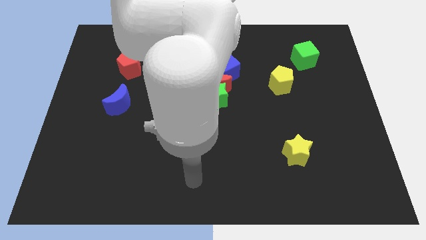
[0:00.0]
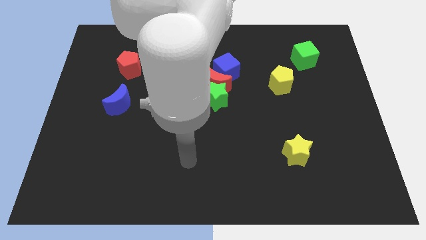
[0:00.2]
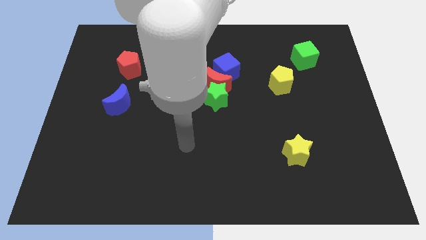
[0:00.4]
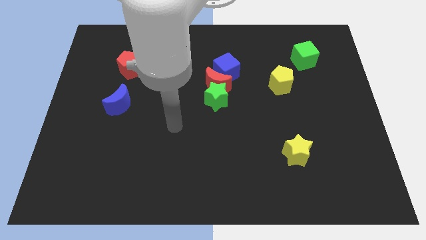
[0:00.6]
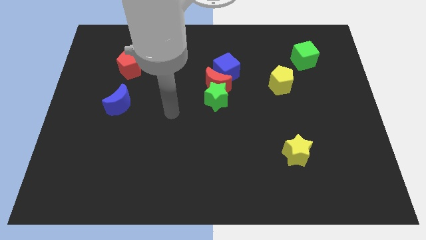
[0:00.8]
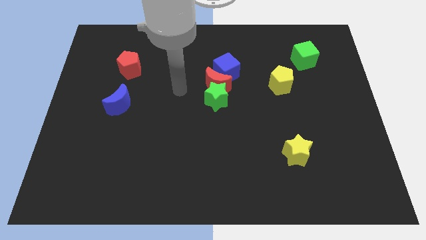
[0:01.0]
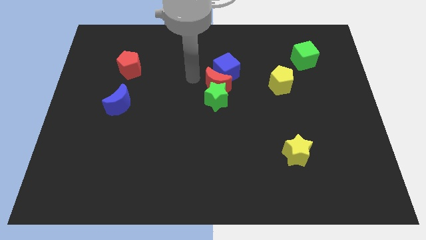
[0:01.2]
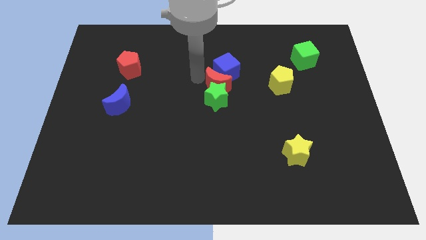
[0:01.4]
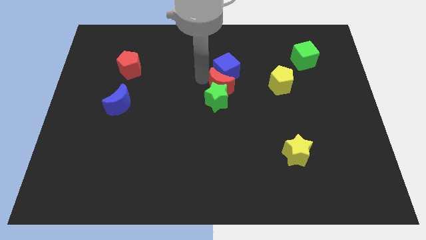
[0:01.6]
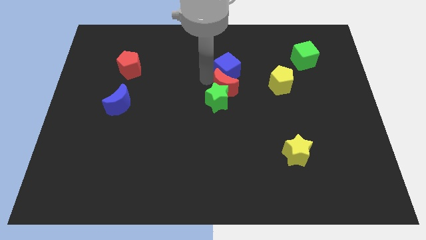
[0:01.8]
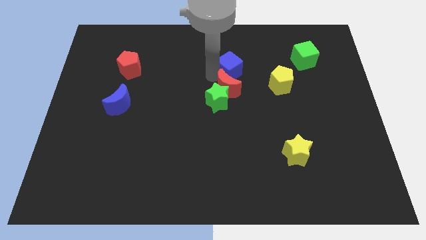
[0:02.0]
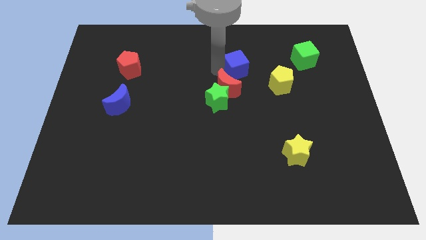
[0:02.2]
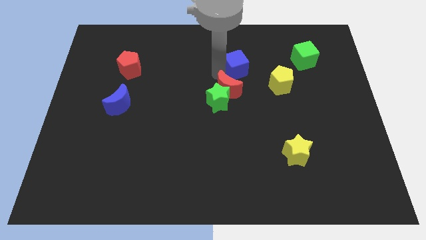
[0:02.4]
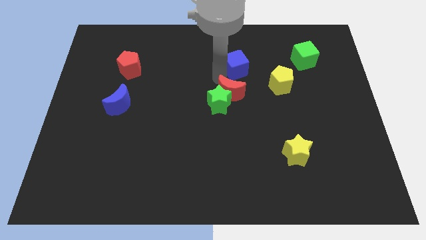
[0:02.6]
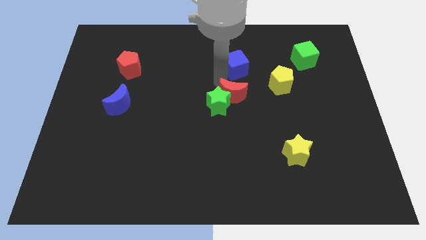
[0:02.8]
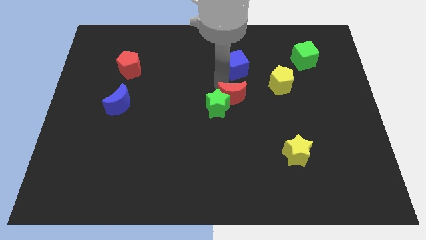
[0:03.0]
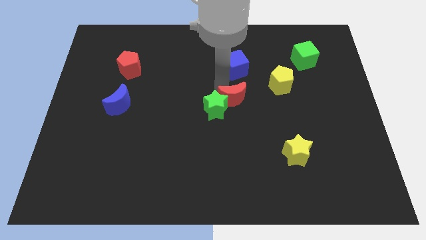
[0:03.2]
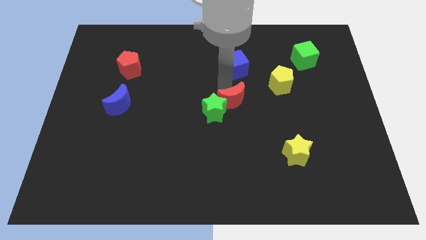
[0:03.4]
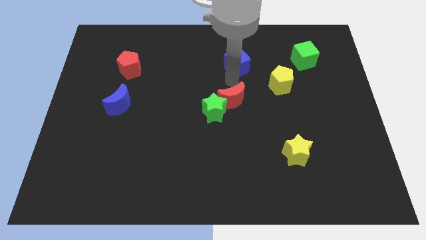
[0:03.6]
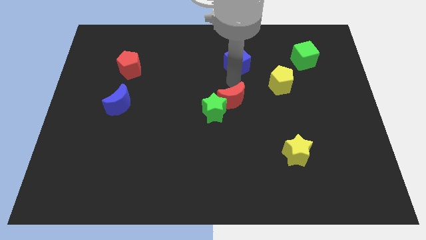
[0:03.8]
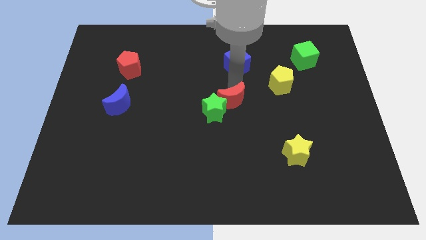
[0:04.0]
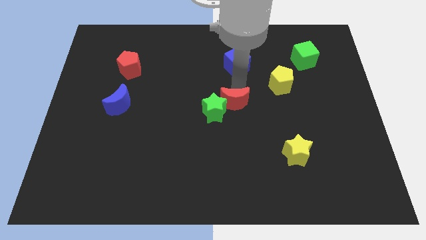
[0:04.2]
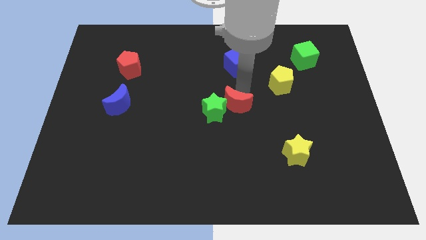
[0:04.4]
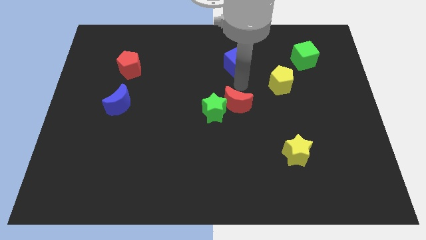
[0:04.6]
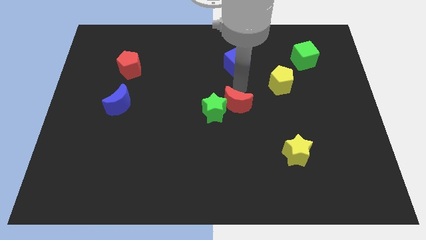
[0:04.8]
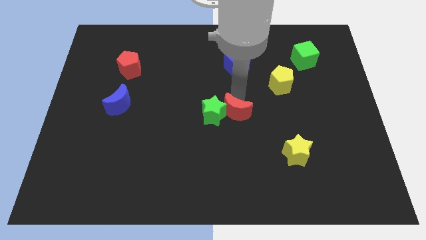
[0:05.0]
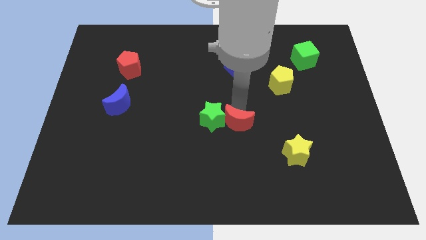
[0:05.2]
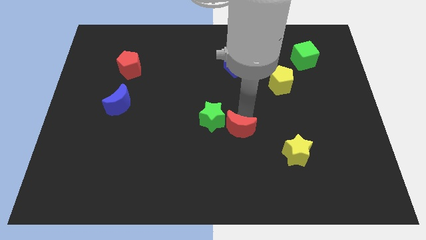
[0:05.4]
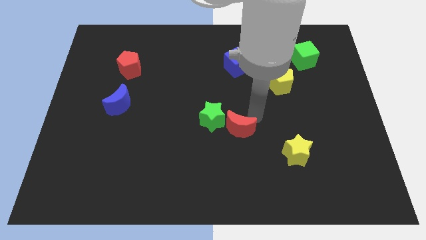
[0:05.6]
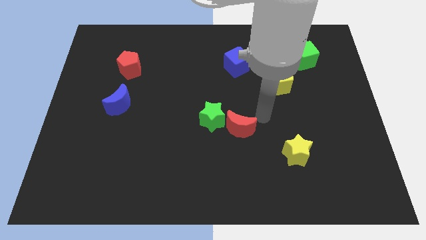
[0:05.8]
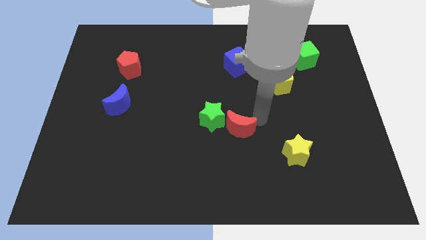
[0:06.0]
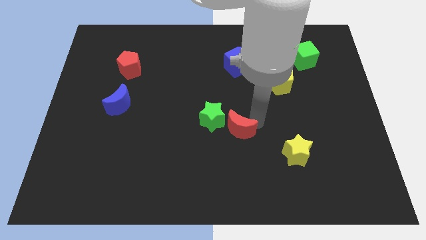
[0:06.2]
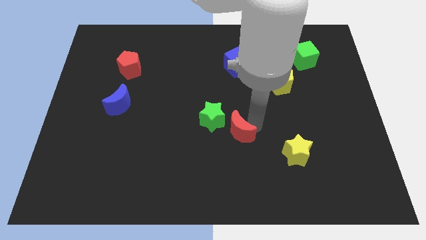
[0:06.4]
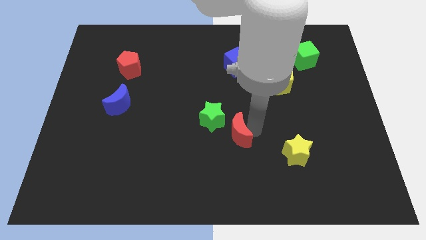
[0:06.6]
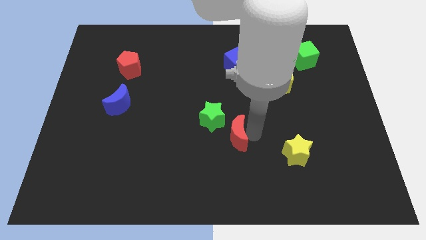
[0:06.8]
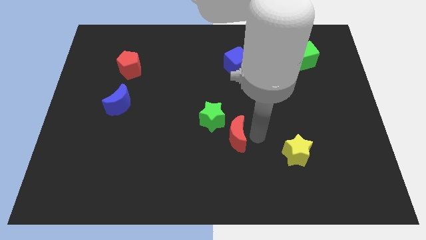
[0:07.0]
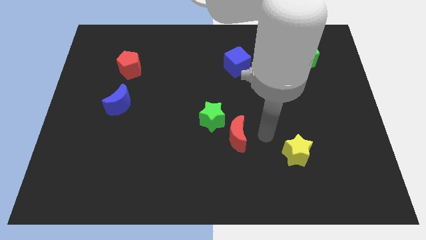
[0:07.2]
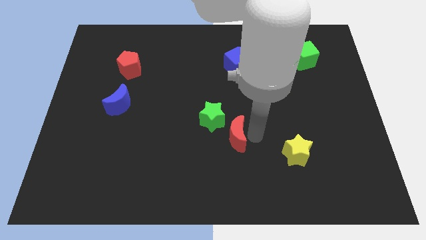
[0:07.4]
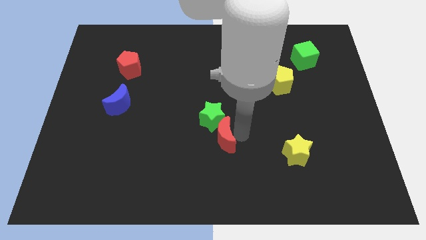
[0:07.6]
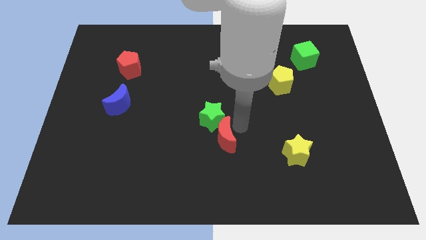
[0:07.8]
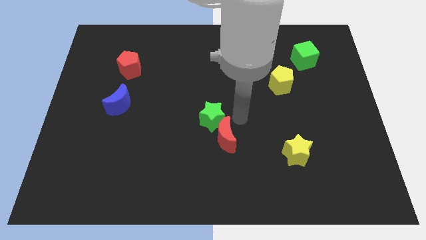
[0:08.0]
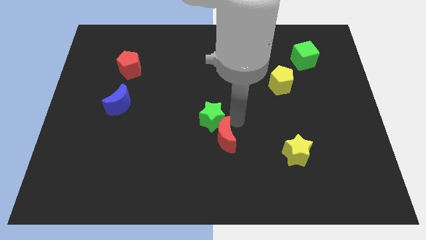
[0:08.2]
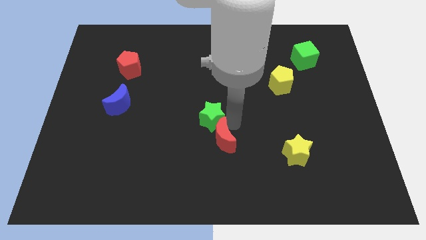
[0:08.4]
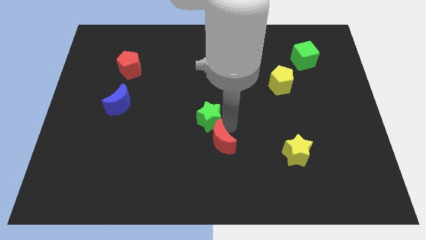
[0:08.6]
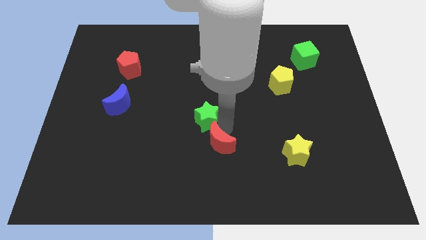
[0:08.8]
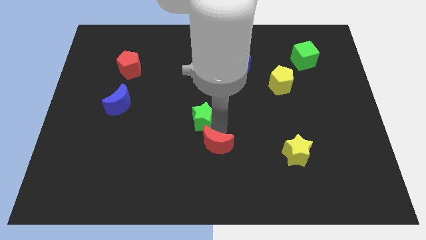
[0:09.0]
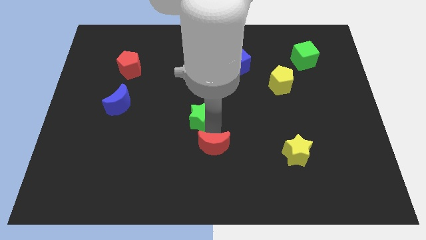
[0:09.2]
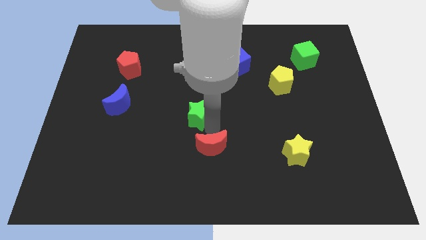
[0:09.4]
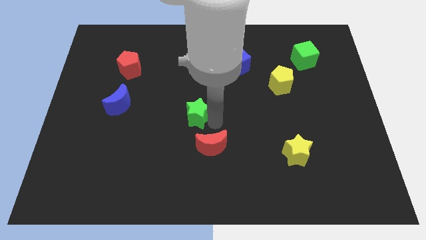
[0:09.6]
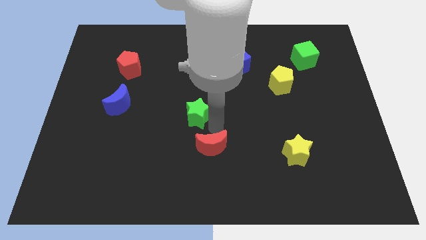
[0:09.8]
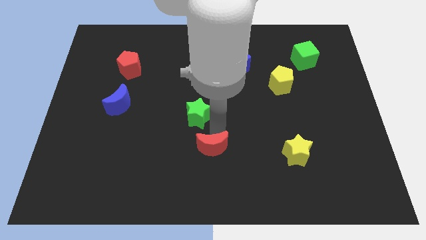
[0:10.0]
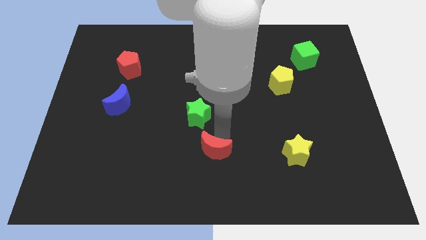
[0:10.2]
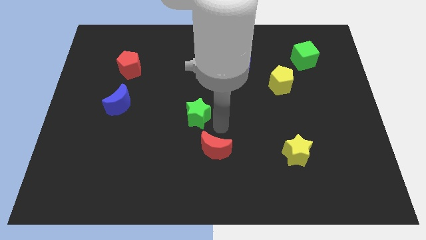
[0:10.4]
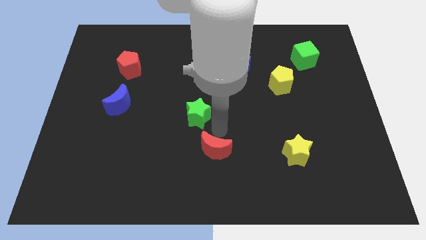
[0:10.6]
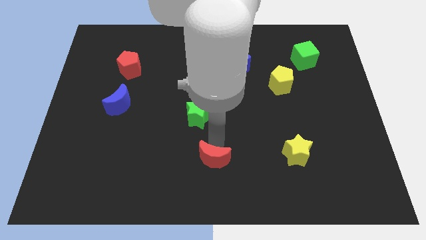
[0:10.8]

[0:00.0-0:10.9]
put the red moon to the bottom side
